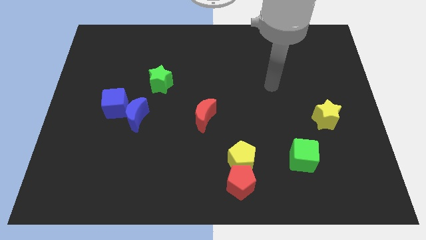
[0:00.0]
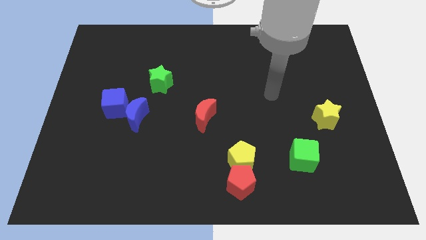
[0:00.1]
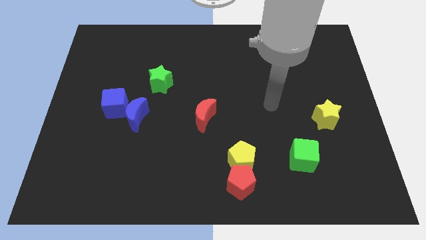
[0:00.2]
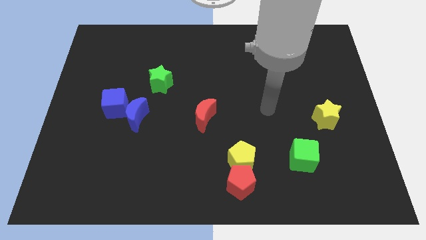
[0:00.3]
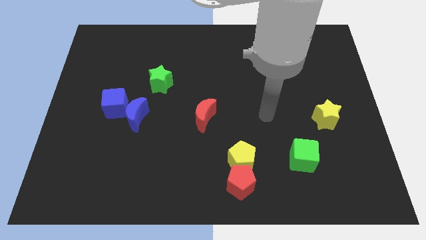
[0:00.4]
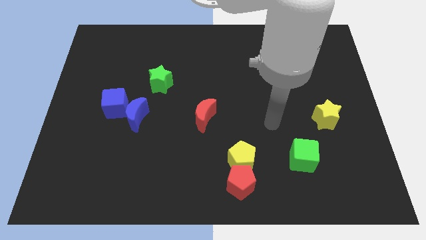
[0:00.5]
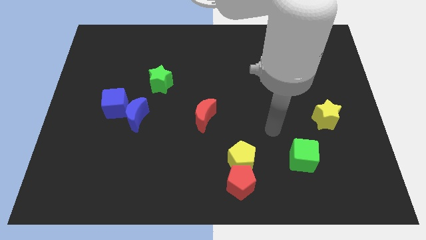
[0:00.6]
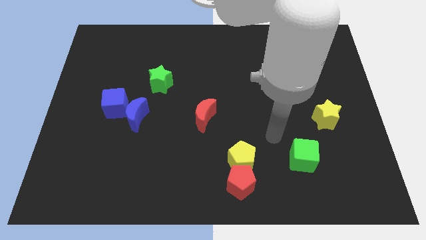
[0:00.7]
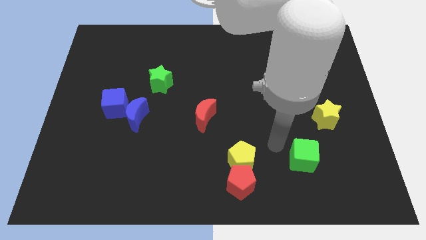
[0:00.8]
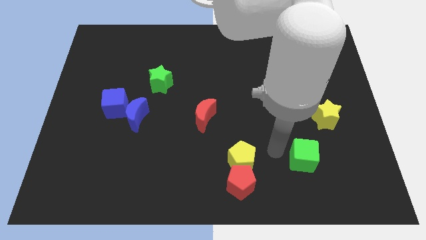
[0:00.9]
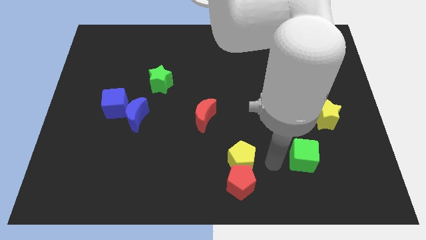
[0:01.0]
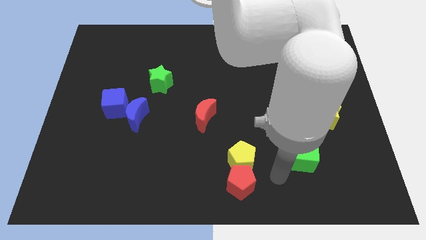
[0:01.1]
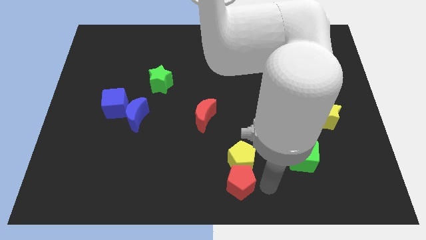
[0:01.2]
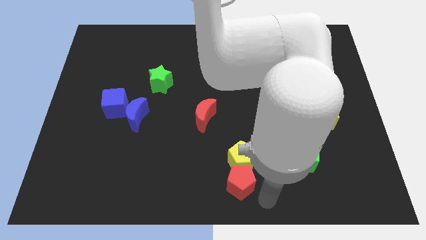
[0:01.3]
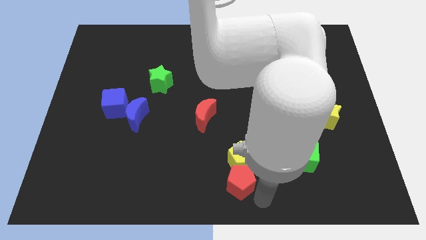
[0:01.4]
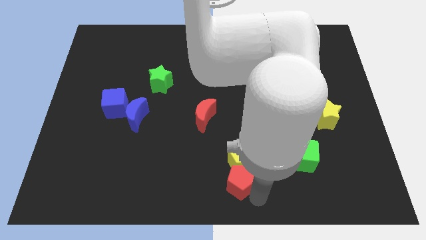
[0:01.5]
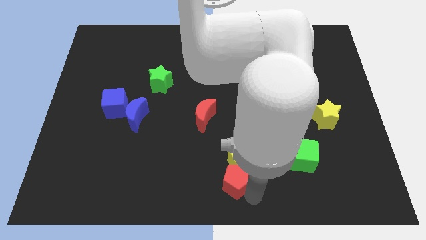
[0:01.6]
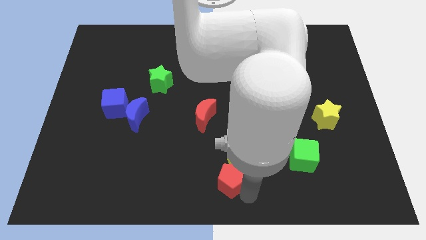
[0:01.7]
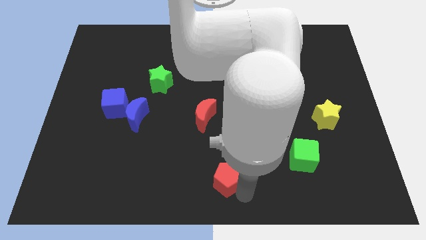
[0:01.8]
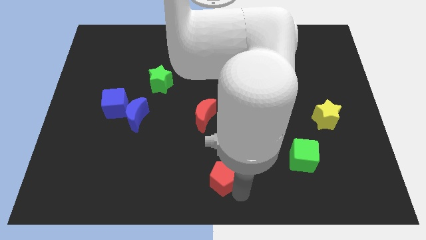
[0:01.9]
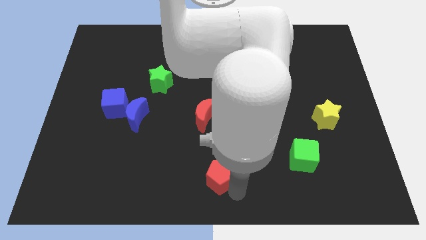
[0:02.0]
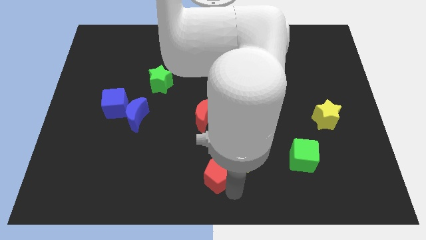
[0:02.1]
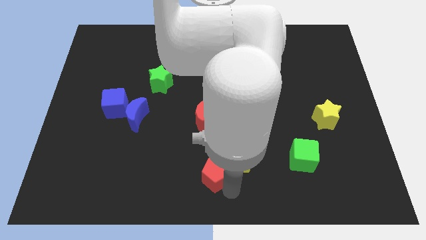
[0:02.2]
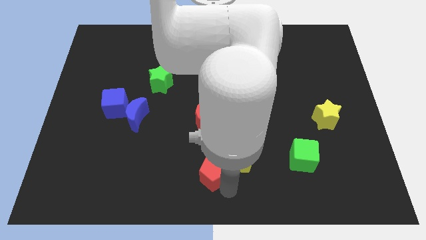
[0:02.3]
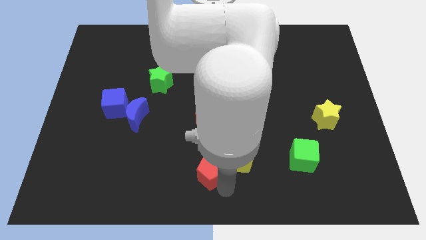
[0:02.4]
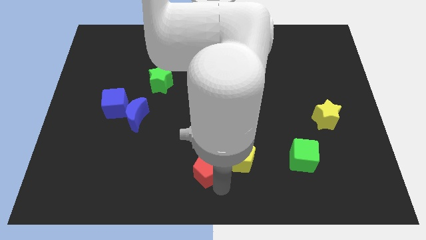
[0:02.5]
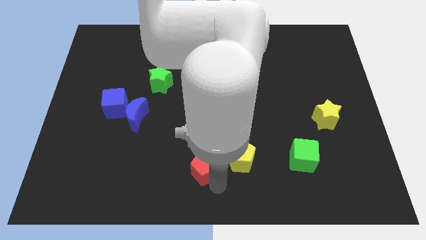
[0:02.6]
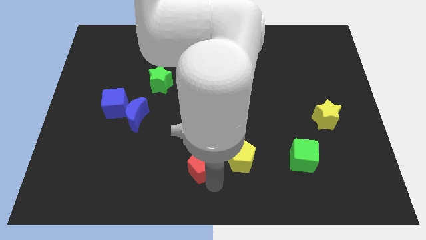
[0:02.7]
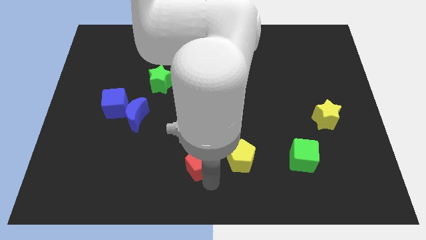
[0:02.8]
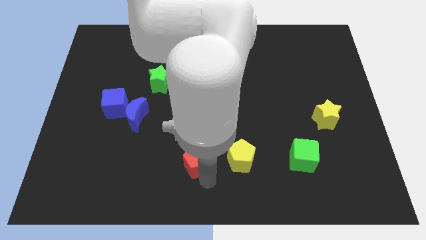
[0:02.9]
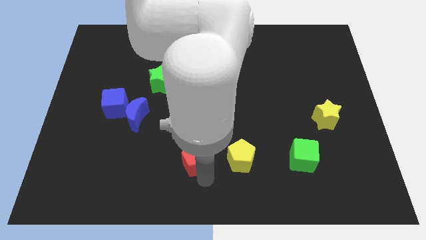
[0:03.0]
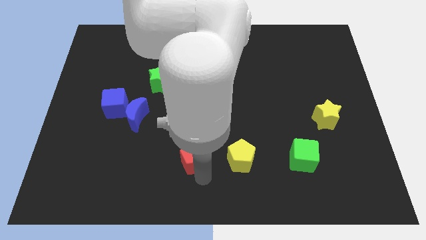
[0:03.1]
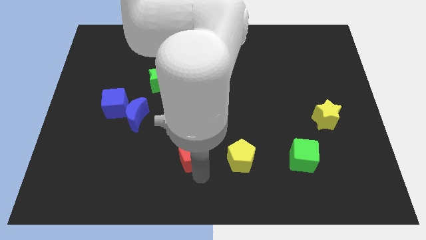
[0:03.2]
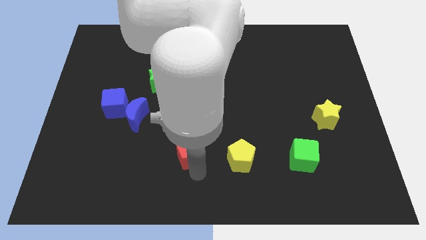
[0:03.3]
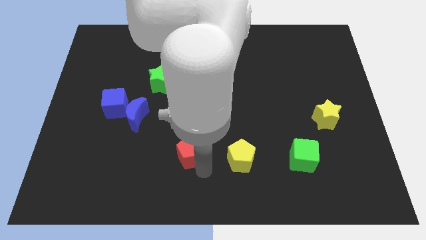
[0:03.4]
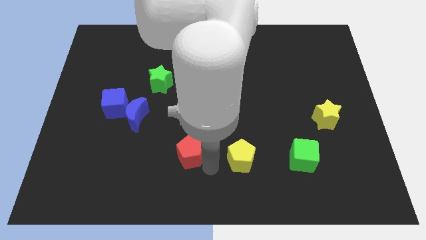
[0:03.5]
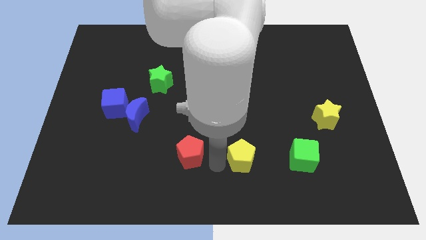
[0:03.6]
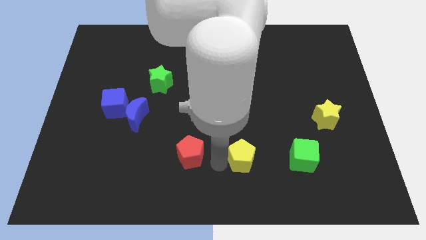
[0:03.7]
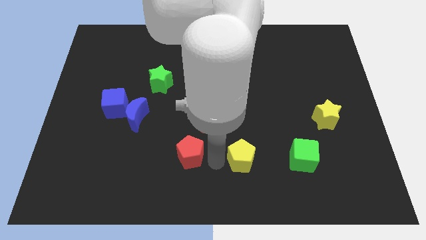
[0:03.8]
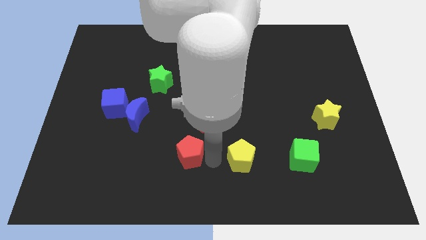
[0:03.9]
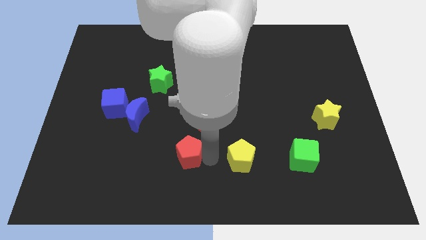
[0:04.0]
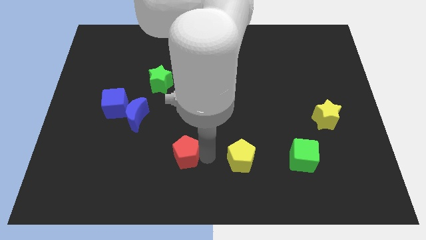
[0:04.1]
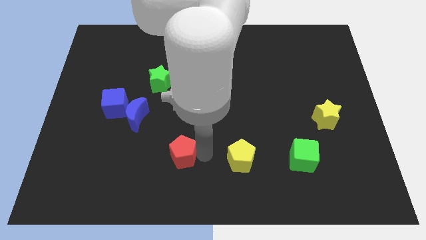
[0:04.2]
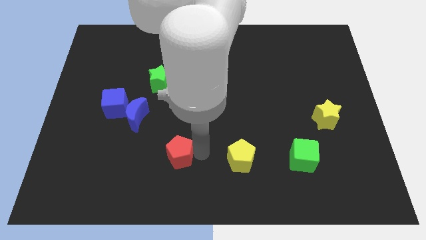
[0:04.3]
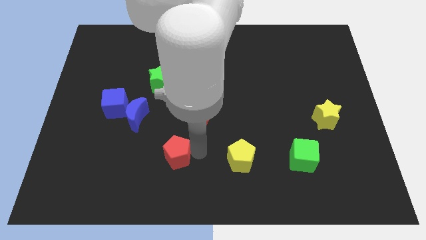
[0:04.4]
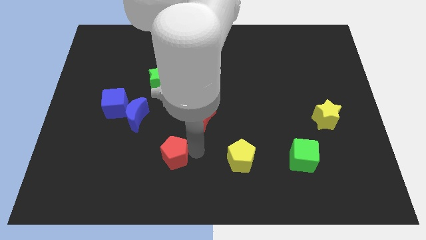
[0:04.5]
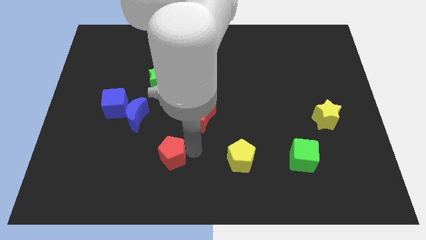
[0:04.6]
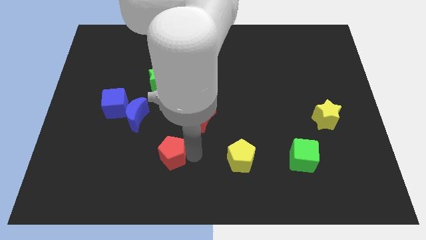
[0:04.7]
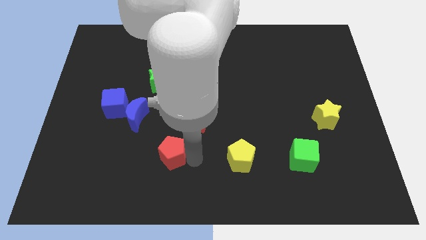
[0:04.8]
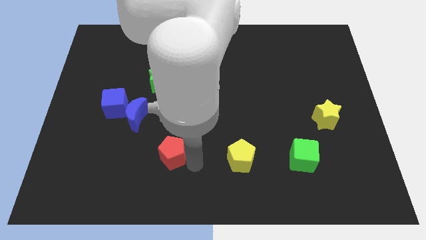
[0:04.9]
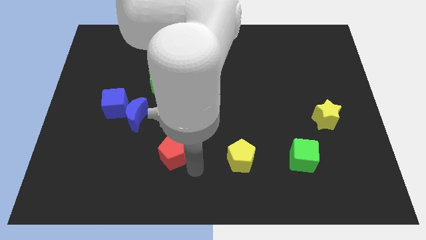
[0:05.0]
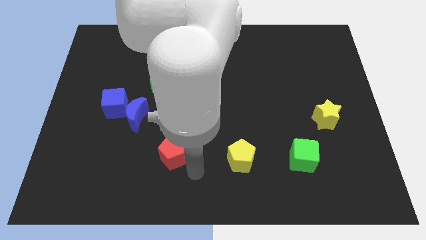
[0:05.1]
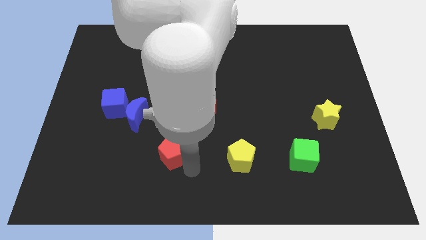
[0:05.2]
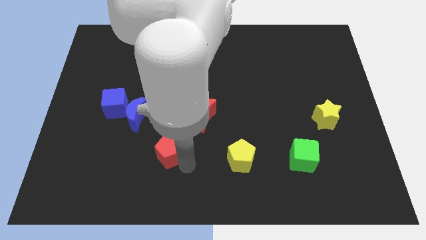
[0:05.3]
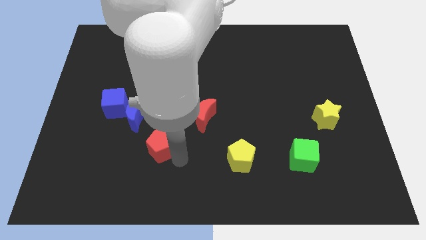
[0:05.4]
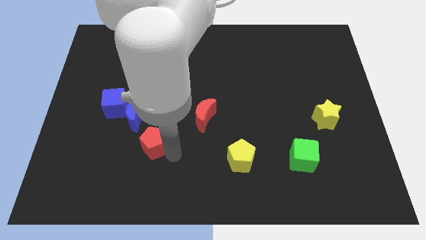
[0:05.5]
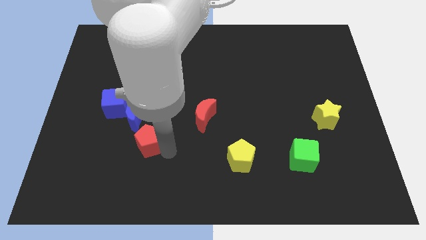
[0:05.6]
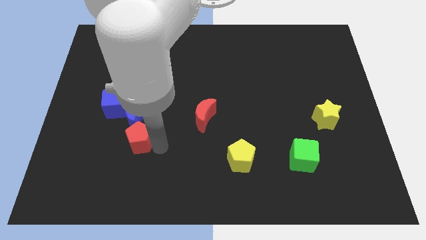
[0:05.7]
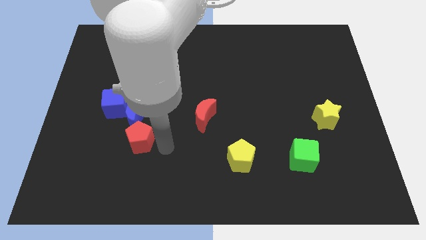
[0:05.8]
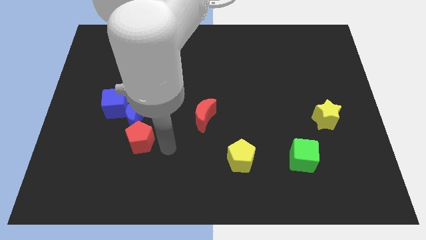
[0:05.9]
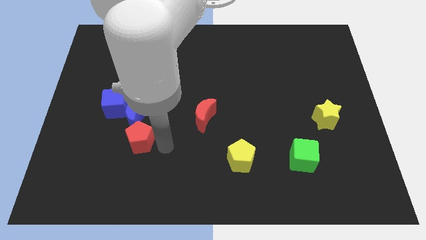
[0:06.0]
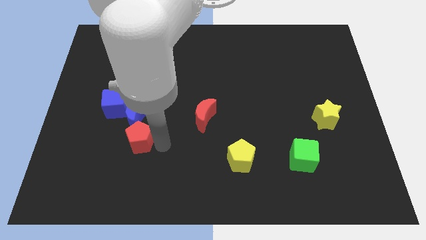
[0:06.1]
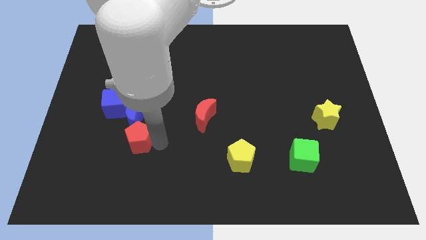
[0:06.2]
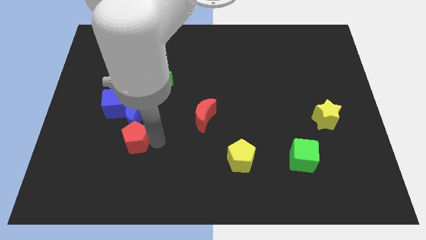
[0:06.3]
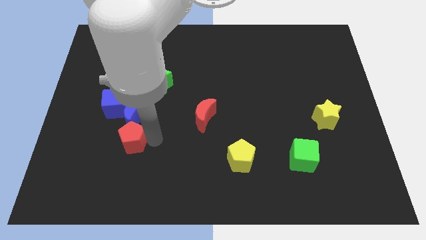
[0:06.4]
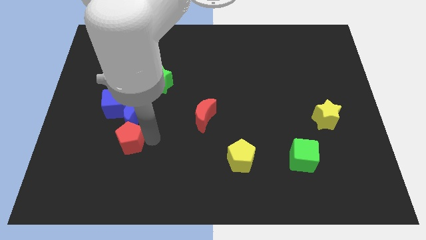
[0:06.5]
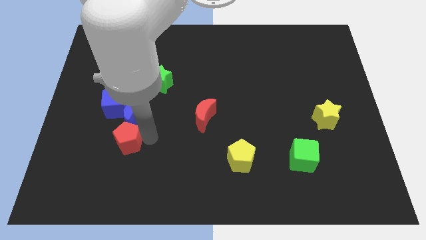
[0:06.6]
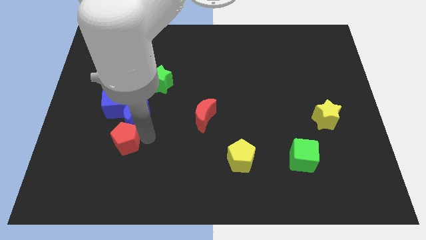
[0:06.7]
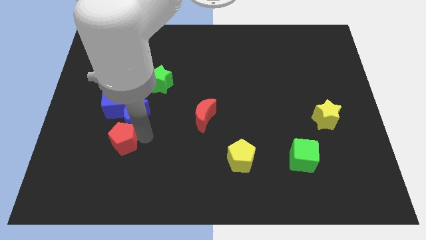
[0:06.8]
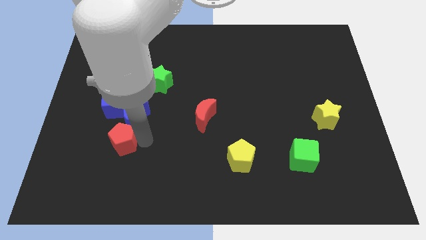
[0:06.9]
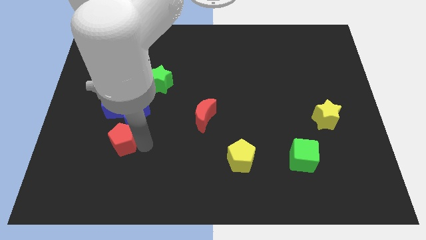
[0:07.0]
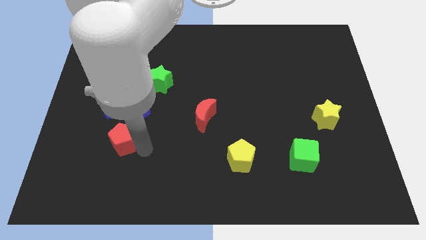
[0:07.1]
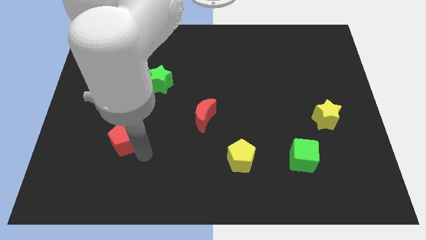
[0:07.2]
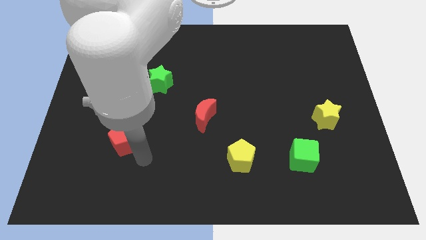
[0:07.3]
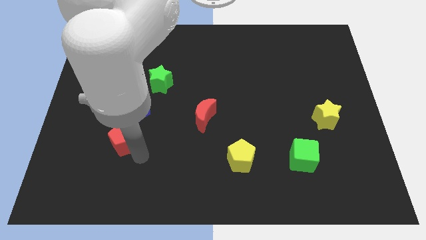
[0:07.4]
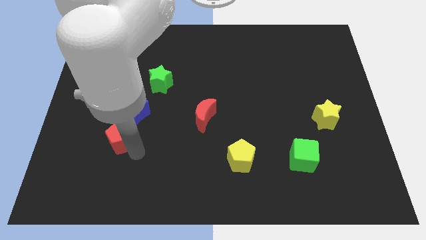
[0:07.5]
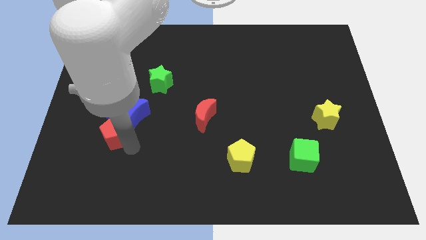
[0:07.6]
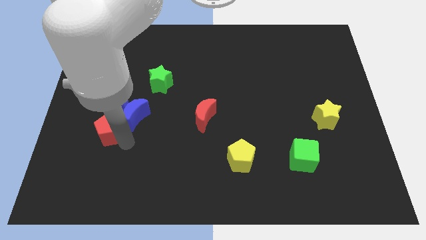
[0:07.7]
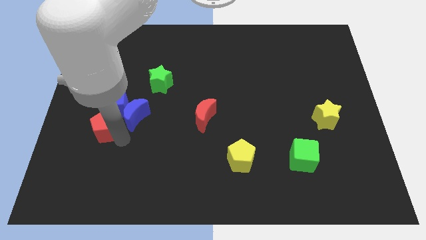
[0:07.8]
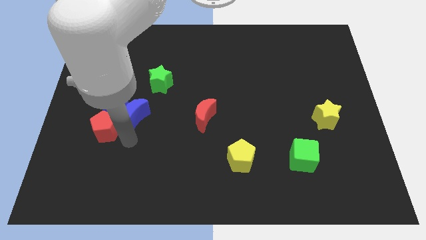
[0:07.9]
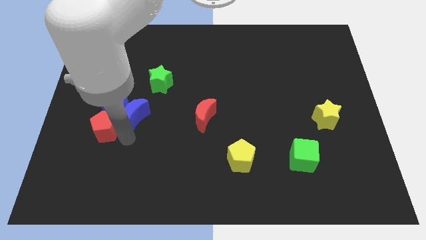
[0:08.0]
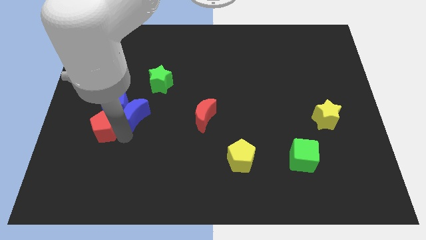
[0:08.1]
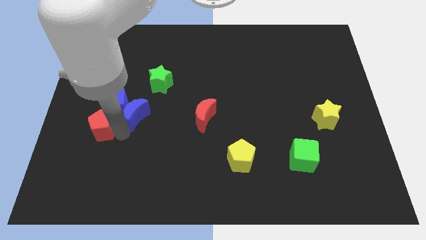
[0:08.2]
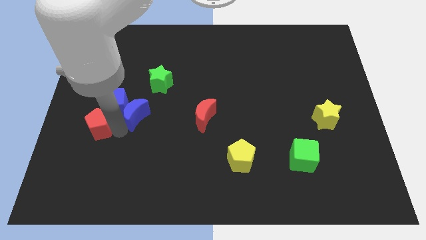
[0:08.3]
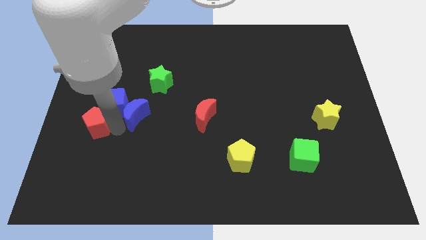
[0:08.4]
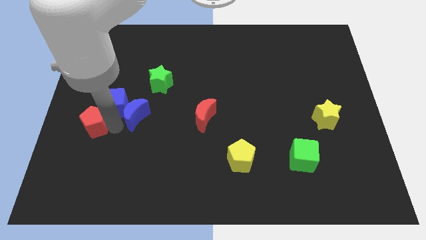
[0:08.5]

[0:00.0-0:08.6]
move the red pentagon to the left side of the board
